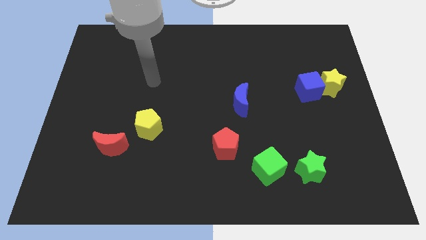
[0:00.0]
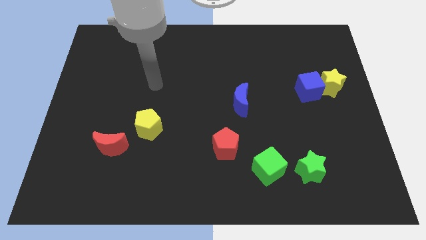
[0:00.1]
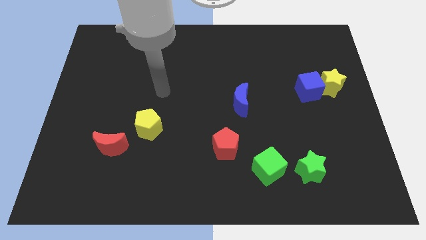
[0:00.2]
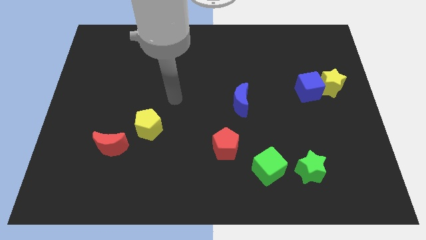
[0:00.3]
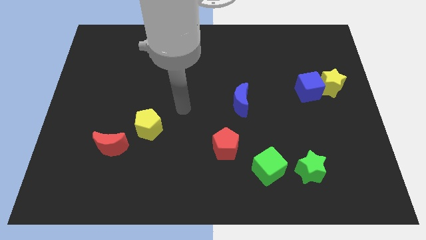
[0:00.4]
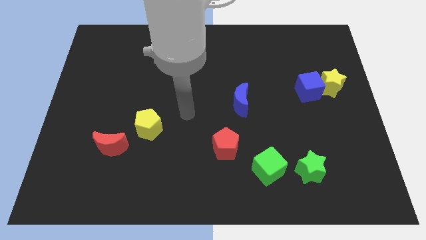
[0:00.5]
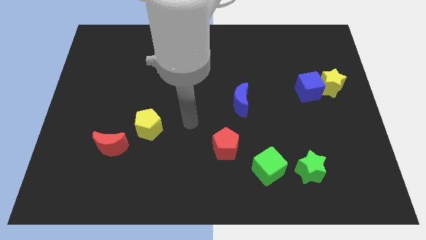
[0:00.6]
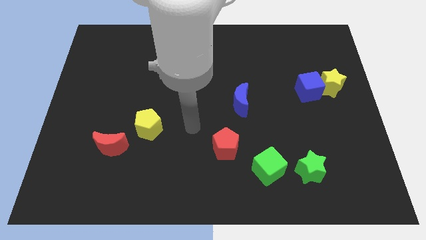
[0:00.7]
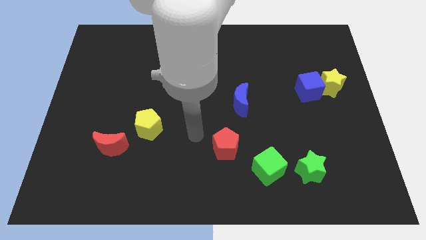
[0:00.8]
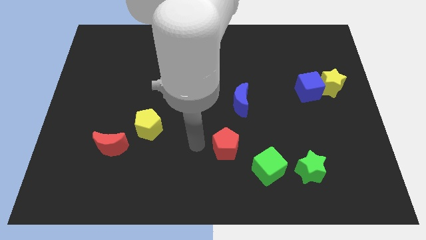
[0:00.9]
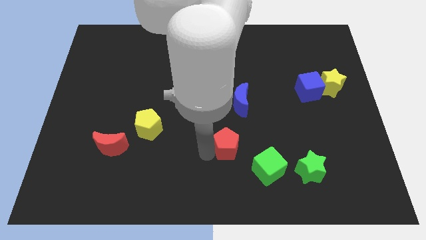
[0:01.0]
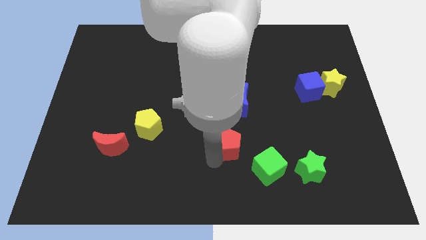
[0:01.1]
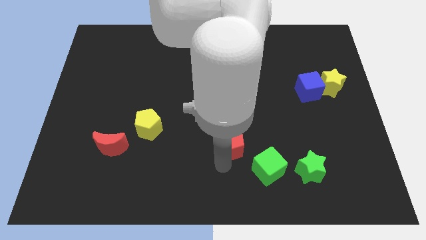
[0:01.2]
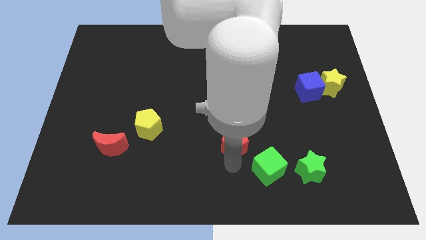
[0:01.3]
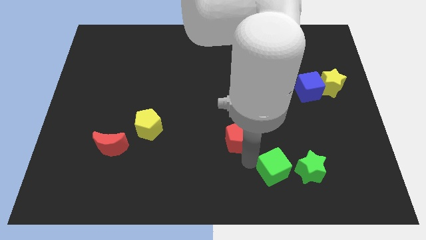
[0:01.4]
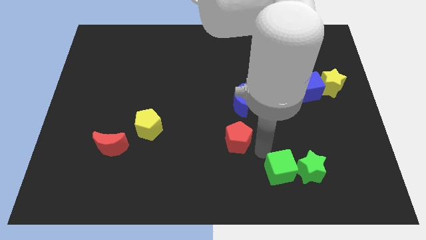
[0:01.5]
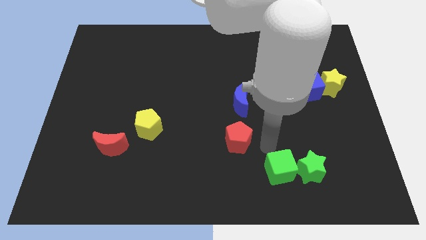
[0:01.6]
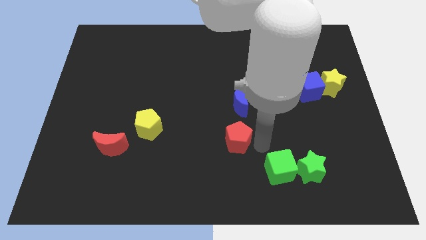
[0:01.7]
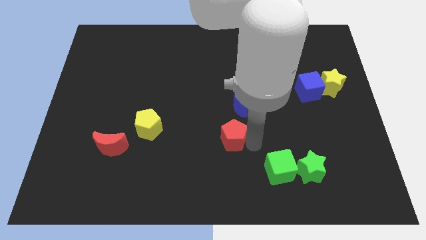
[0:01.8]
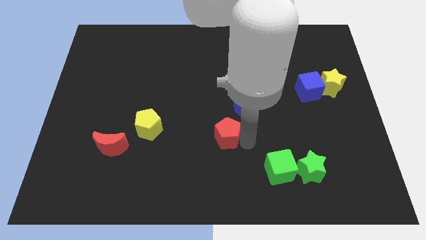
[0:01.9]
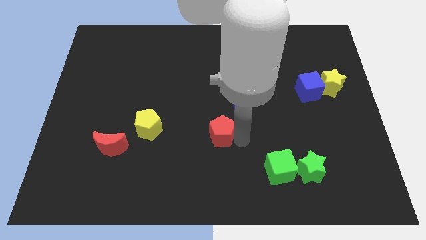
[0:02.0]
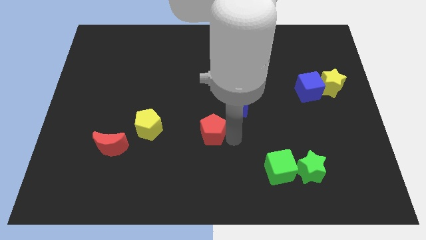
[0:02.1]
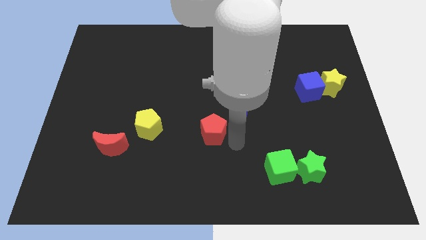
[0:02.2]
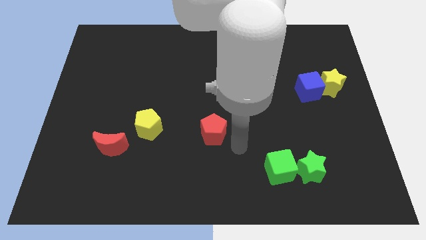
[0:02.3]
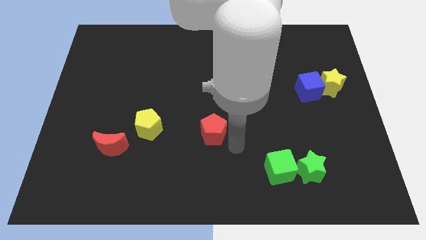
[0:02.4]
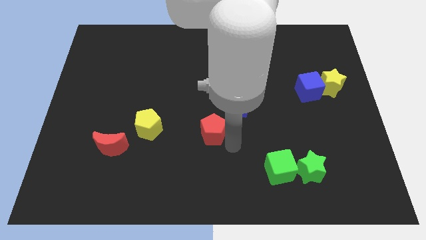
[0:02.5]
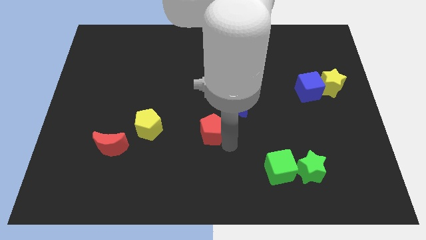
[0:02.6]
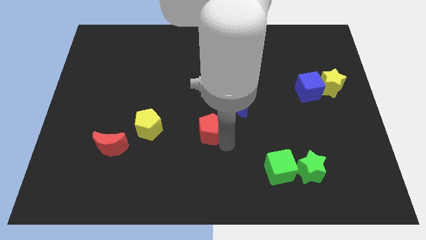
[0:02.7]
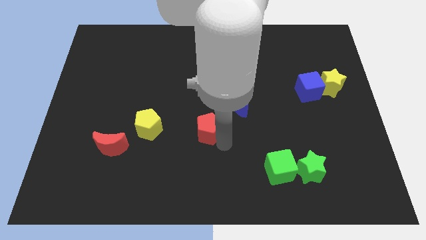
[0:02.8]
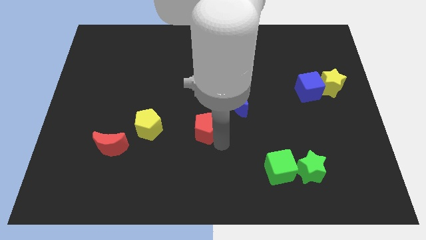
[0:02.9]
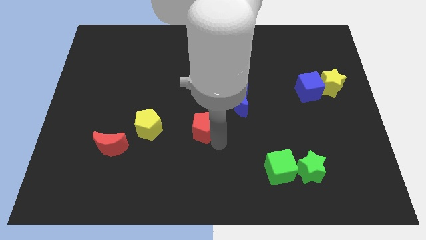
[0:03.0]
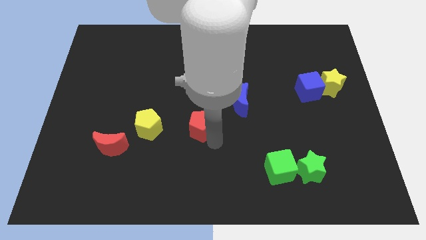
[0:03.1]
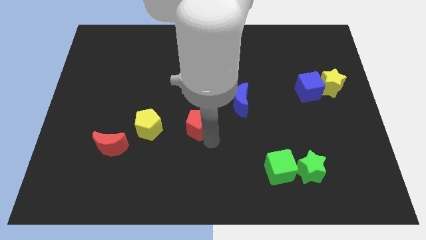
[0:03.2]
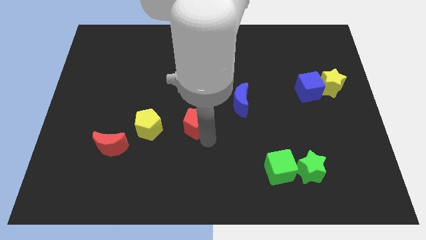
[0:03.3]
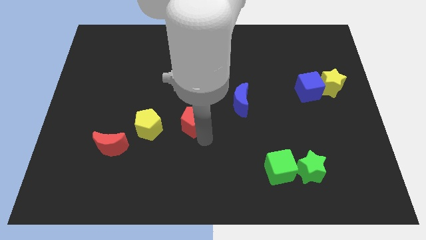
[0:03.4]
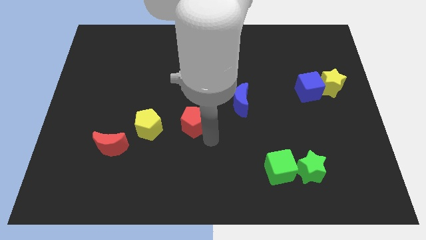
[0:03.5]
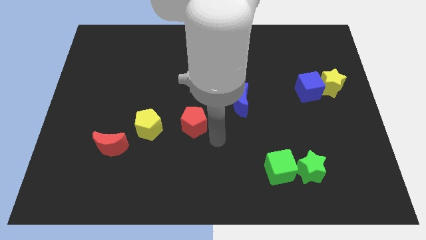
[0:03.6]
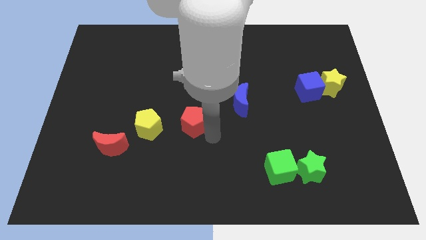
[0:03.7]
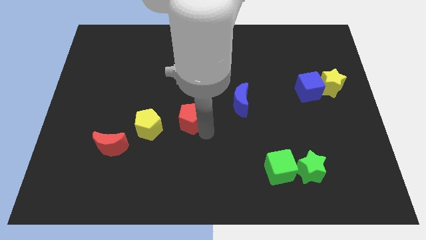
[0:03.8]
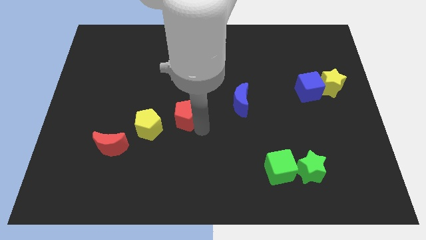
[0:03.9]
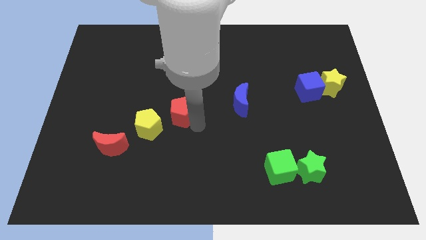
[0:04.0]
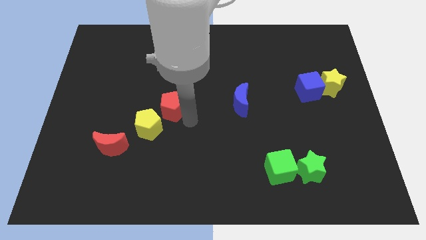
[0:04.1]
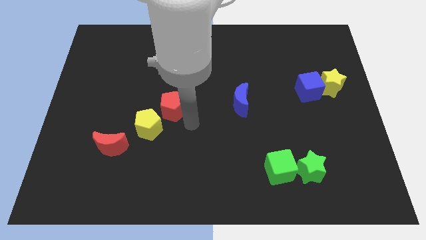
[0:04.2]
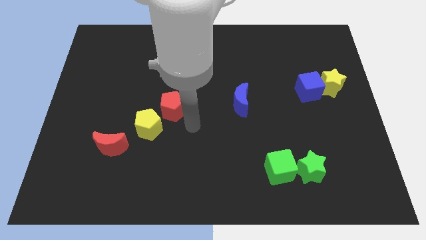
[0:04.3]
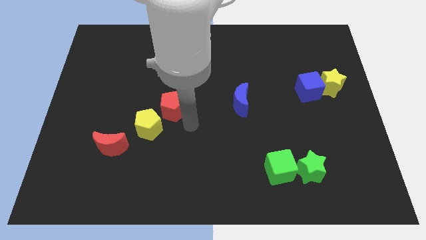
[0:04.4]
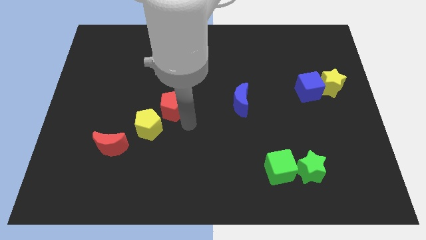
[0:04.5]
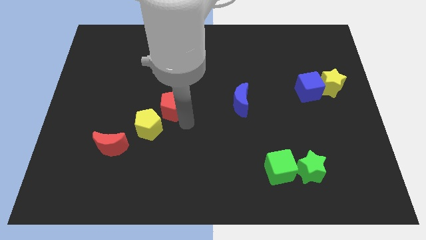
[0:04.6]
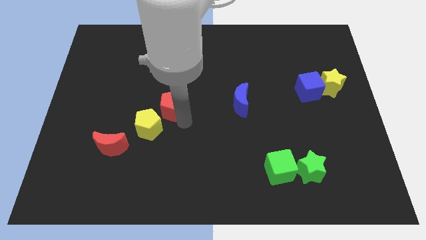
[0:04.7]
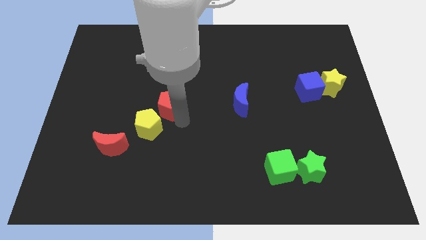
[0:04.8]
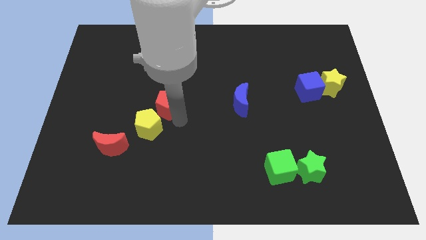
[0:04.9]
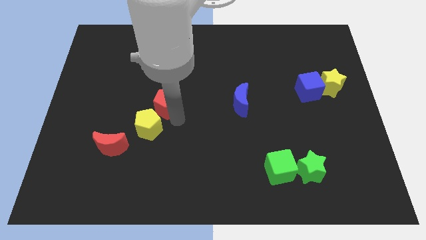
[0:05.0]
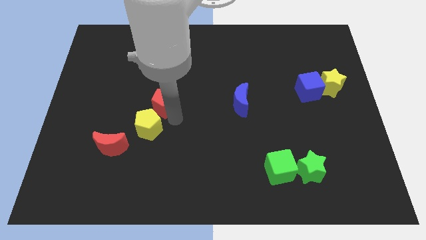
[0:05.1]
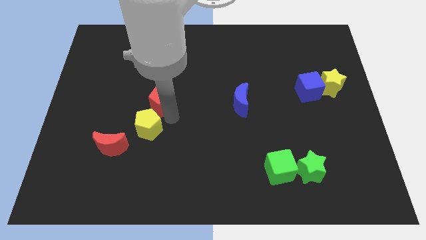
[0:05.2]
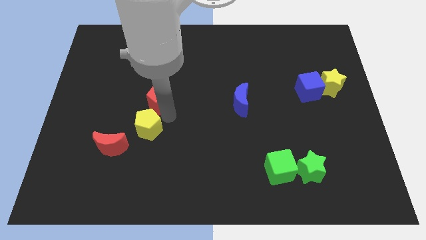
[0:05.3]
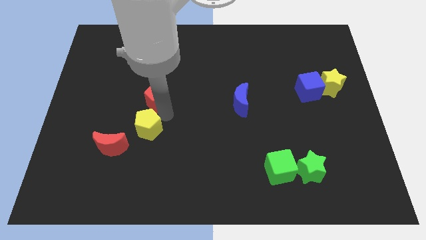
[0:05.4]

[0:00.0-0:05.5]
move the red pentagon upwards and left diagonally

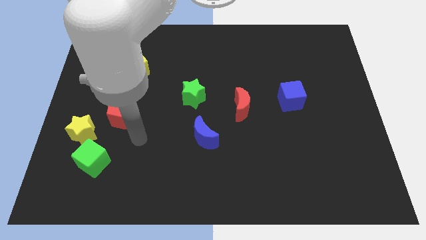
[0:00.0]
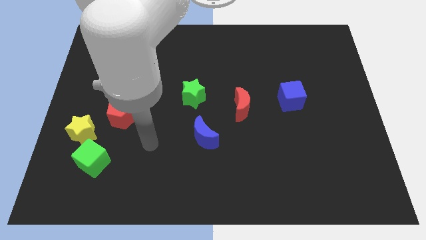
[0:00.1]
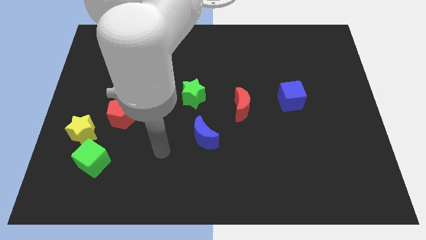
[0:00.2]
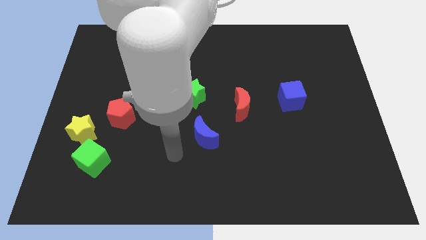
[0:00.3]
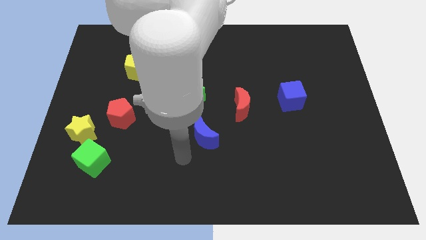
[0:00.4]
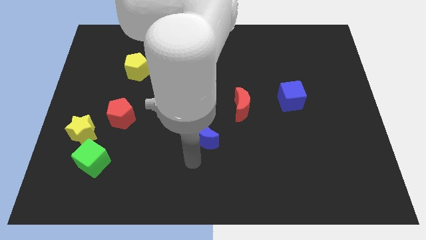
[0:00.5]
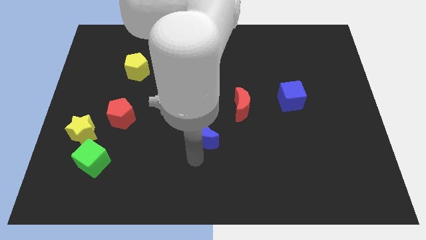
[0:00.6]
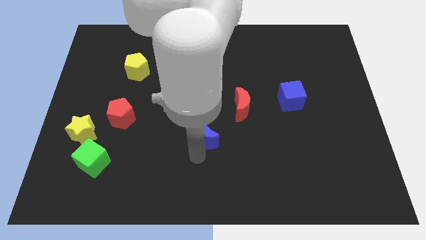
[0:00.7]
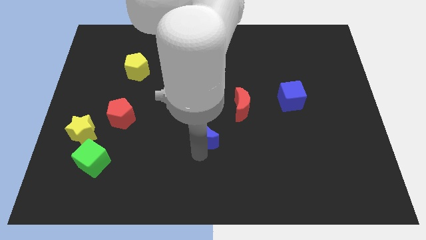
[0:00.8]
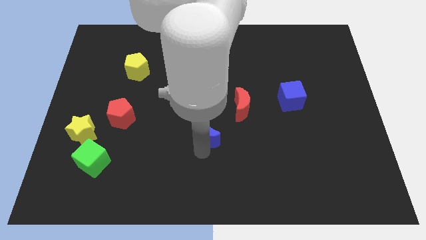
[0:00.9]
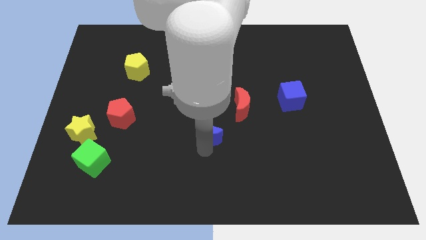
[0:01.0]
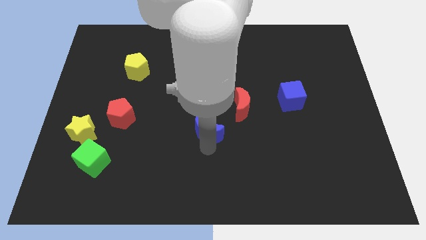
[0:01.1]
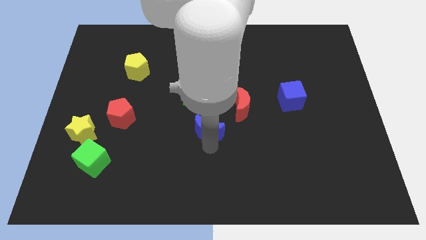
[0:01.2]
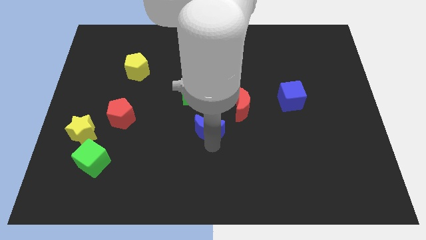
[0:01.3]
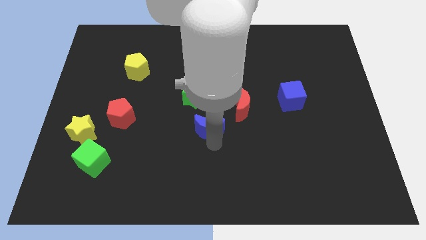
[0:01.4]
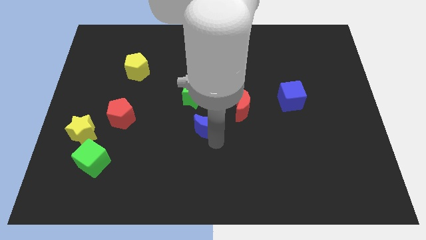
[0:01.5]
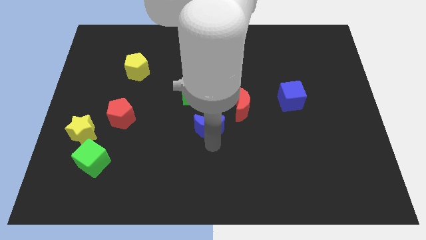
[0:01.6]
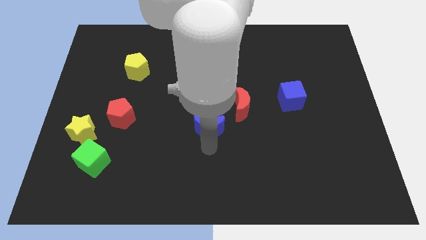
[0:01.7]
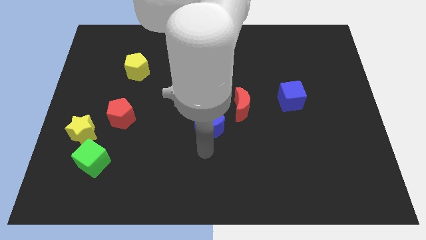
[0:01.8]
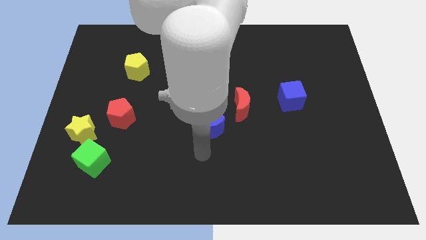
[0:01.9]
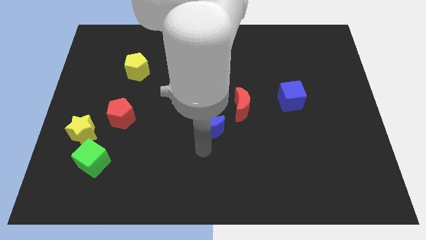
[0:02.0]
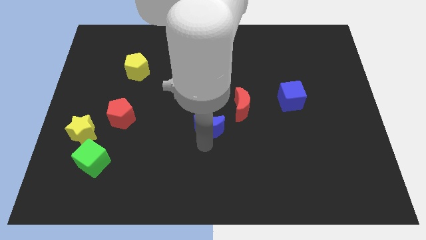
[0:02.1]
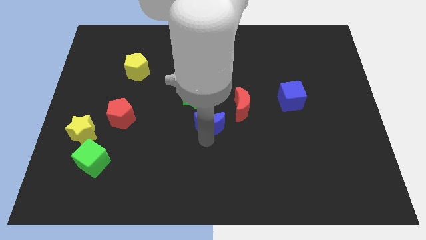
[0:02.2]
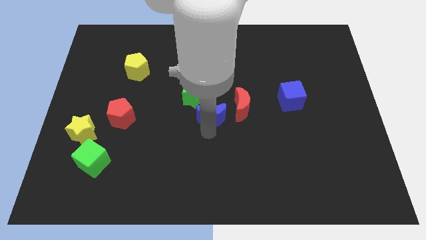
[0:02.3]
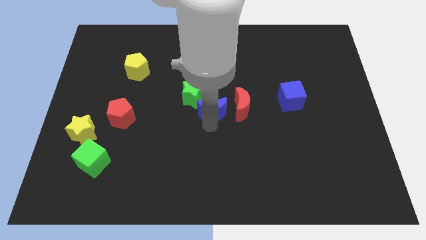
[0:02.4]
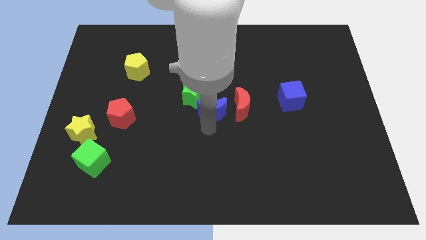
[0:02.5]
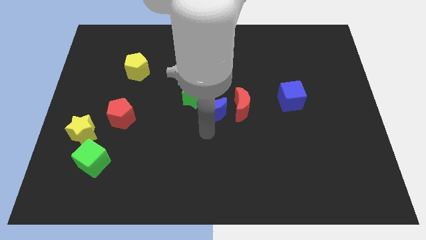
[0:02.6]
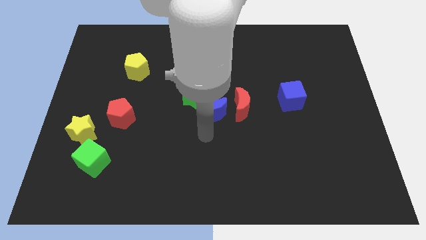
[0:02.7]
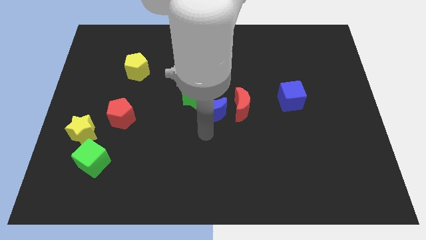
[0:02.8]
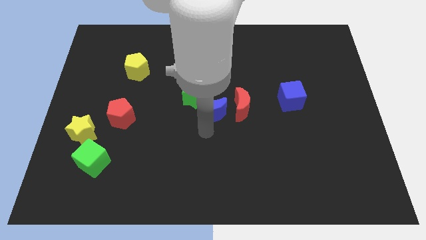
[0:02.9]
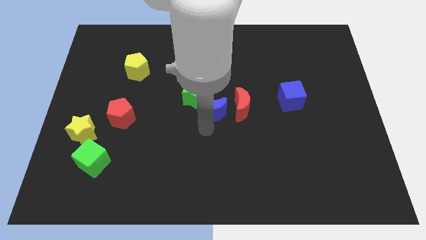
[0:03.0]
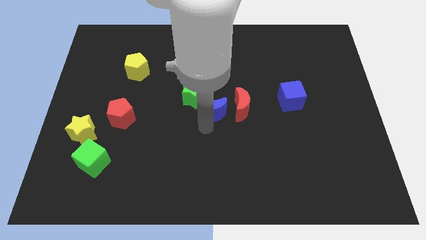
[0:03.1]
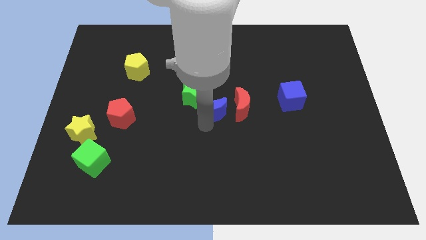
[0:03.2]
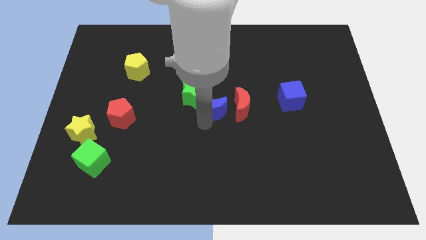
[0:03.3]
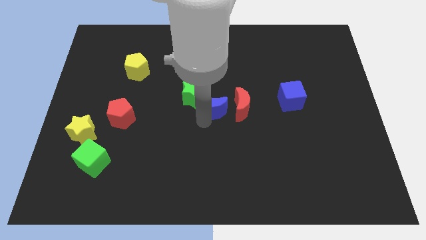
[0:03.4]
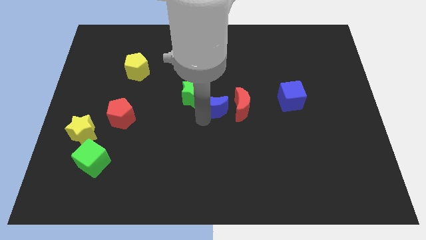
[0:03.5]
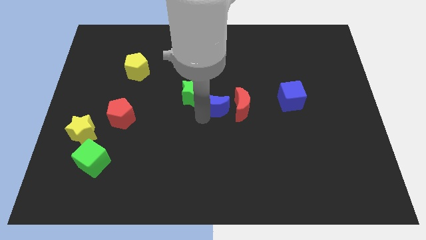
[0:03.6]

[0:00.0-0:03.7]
push the blue moon slightly diagonally upwards and to the right
